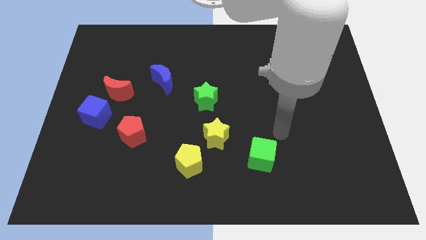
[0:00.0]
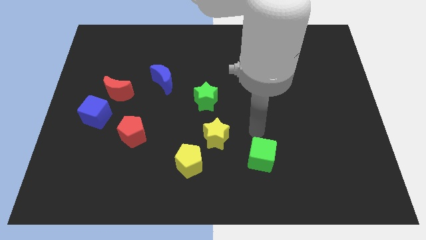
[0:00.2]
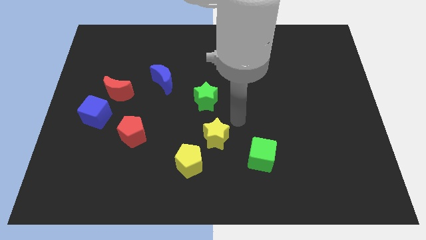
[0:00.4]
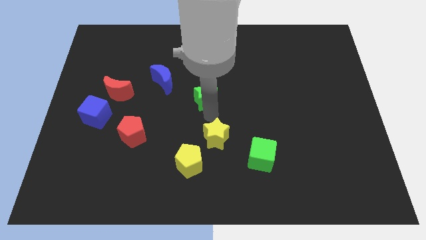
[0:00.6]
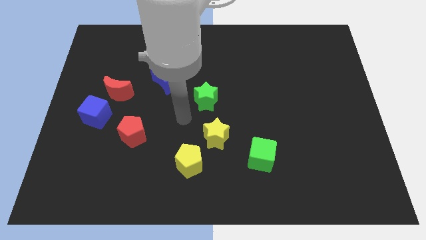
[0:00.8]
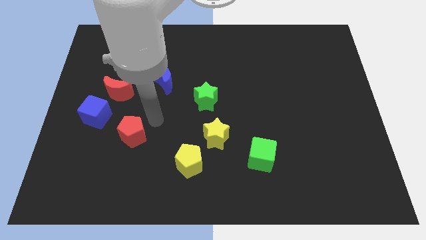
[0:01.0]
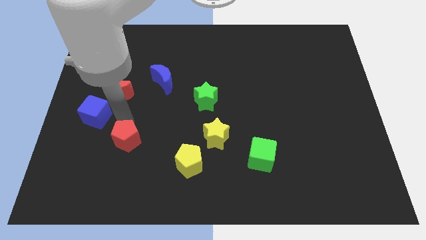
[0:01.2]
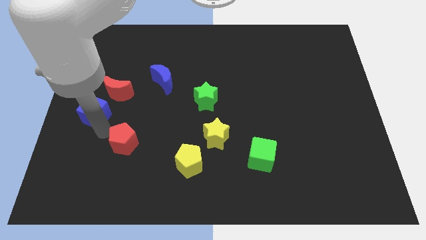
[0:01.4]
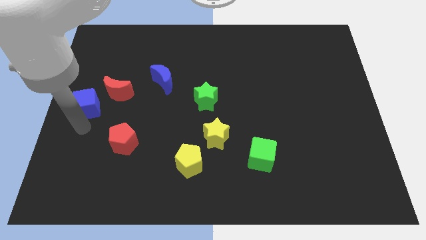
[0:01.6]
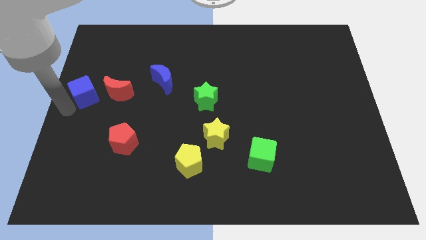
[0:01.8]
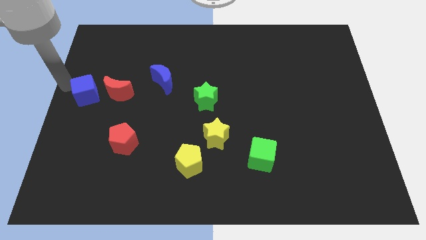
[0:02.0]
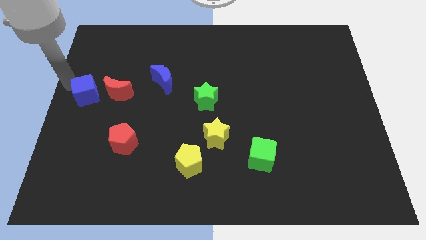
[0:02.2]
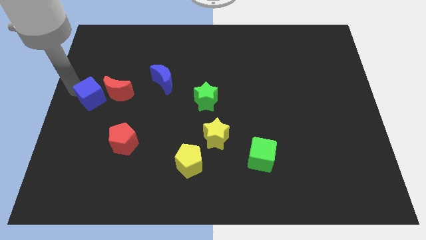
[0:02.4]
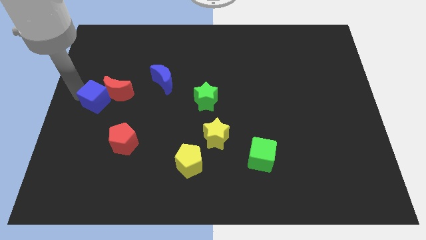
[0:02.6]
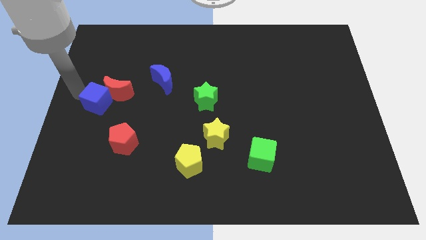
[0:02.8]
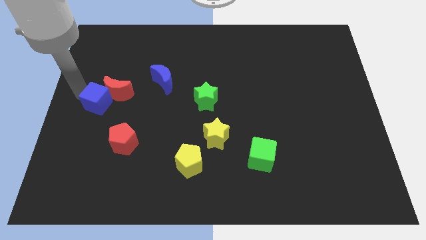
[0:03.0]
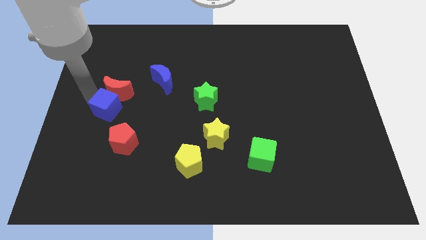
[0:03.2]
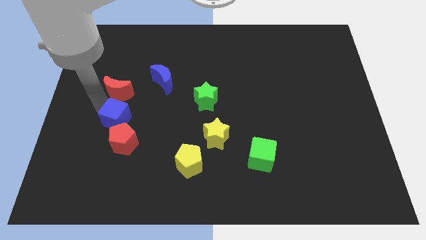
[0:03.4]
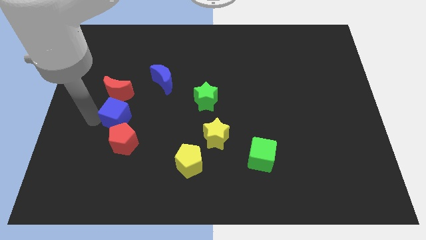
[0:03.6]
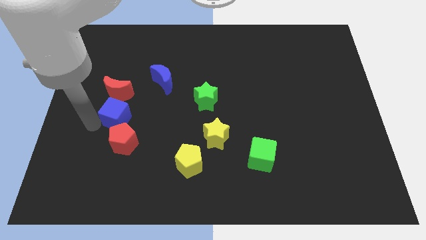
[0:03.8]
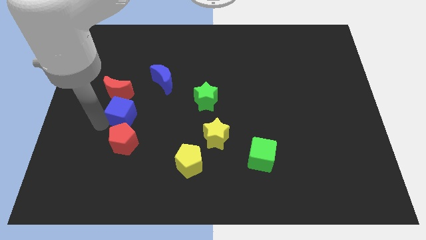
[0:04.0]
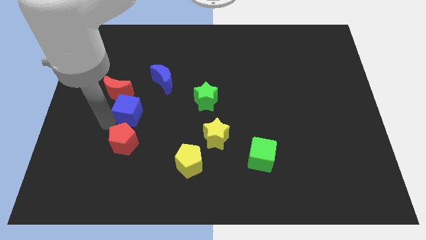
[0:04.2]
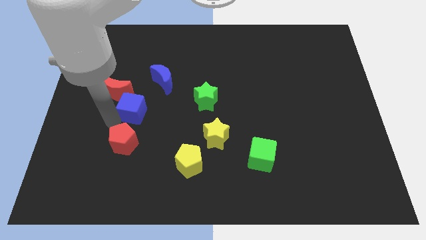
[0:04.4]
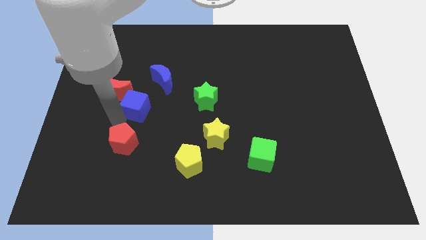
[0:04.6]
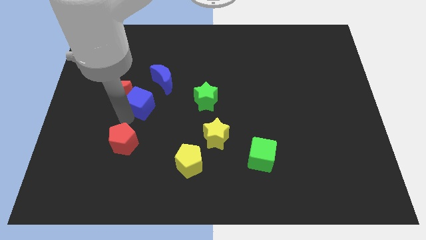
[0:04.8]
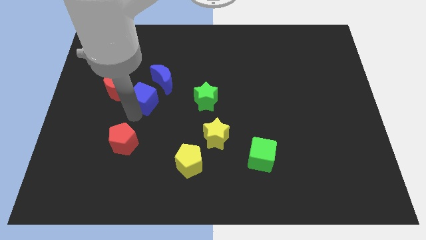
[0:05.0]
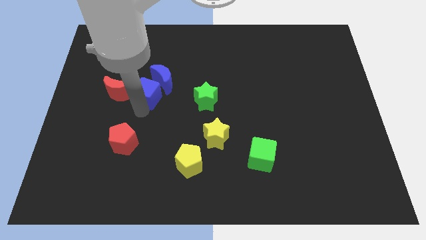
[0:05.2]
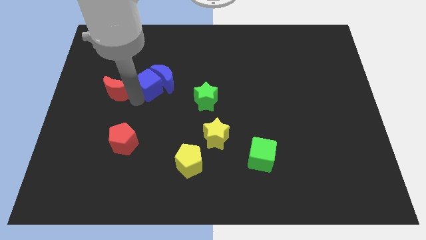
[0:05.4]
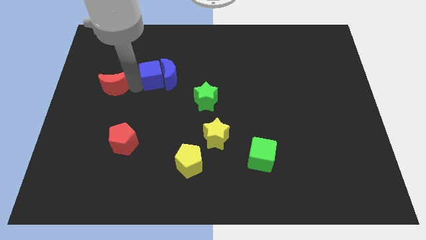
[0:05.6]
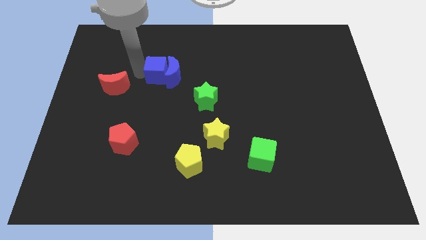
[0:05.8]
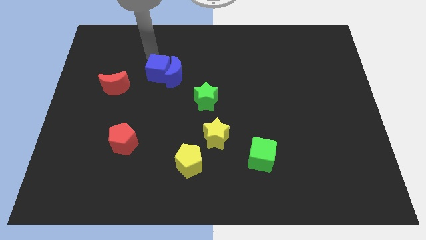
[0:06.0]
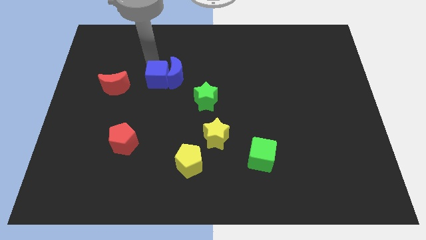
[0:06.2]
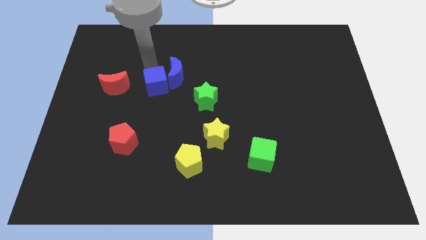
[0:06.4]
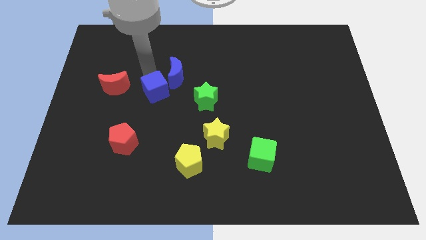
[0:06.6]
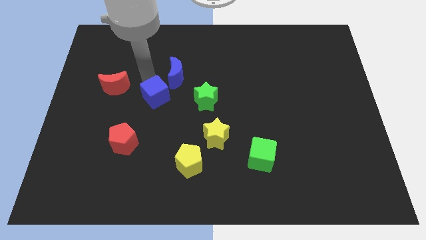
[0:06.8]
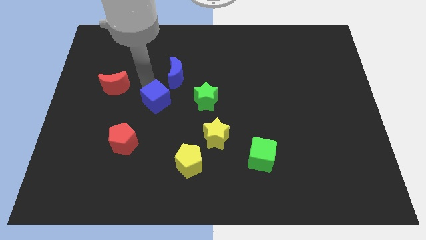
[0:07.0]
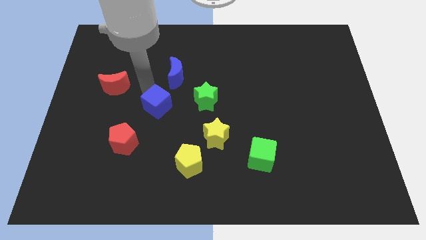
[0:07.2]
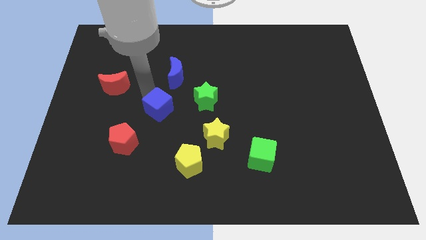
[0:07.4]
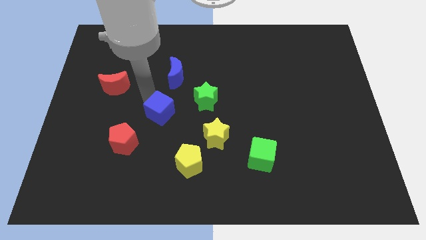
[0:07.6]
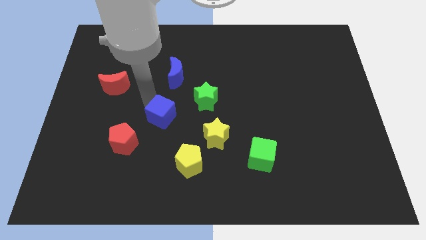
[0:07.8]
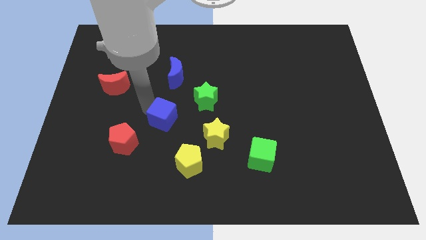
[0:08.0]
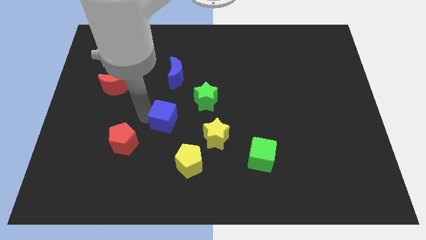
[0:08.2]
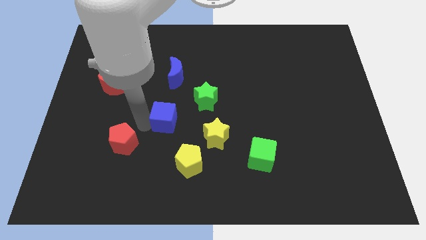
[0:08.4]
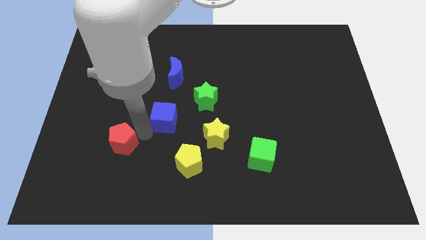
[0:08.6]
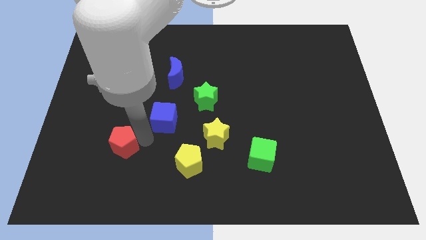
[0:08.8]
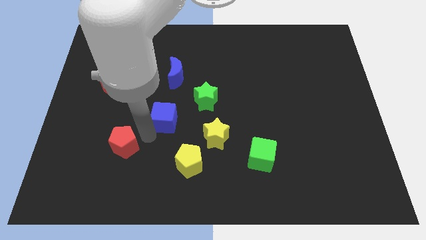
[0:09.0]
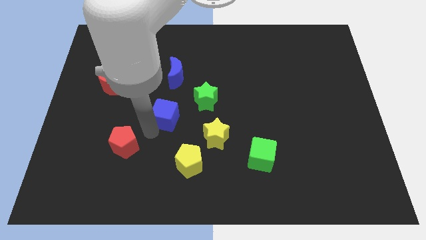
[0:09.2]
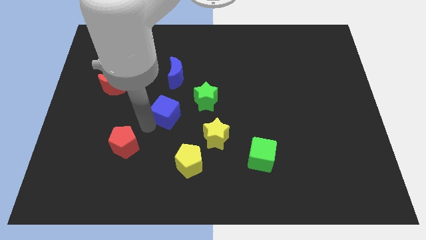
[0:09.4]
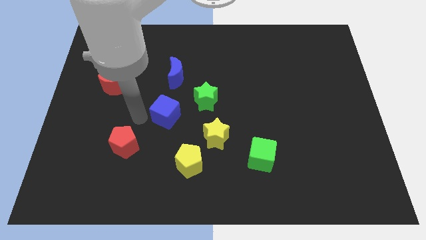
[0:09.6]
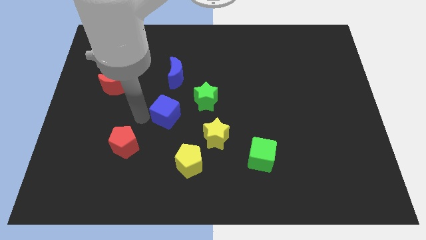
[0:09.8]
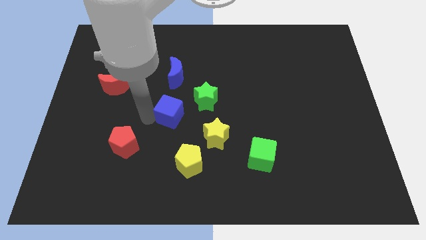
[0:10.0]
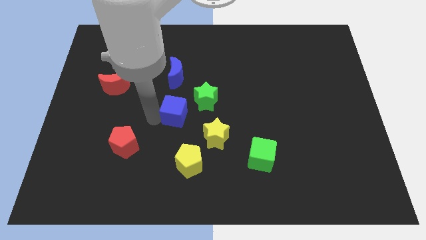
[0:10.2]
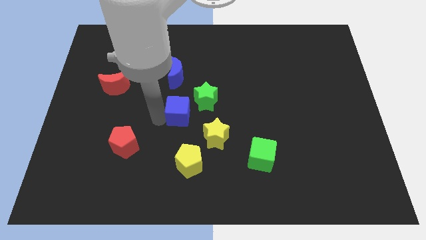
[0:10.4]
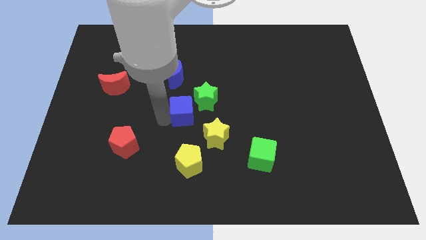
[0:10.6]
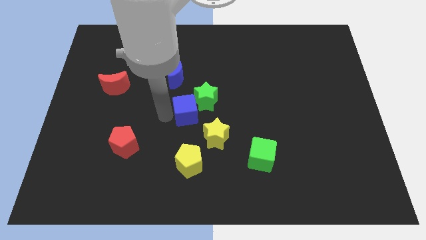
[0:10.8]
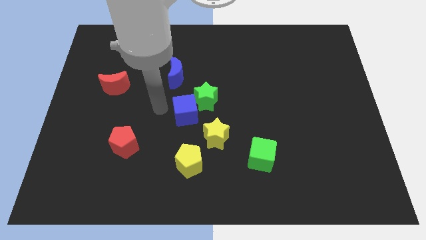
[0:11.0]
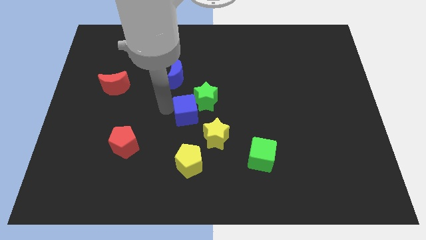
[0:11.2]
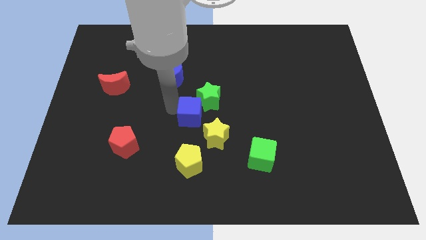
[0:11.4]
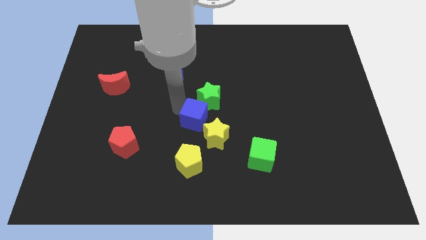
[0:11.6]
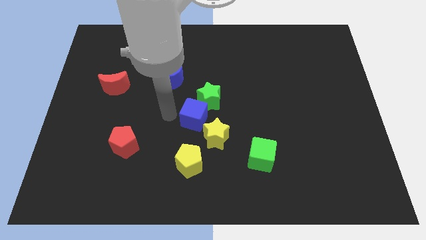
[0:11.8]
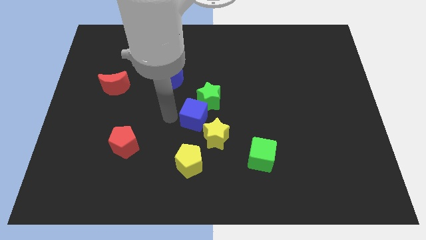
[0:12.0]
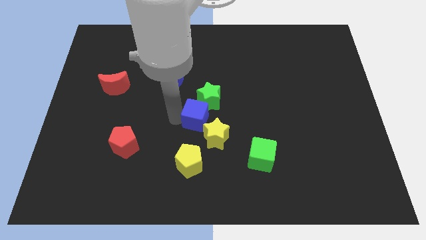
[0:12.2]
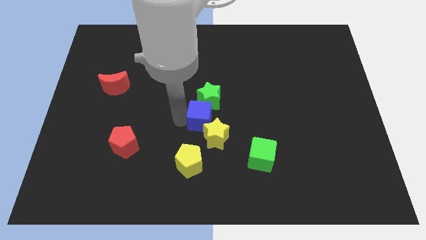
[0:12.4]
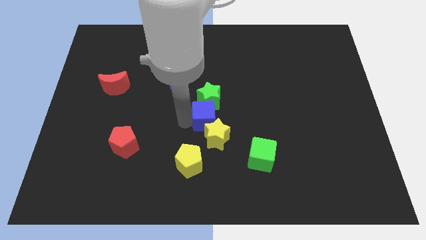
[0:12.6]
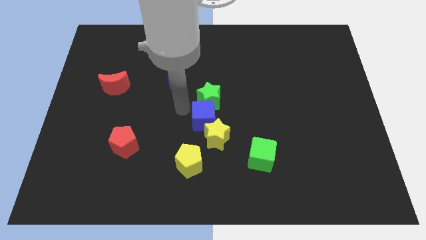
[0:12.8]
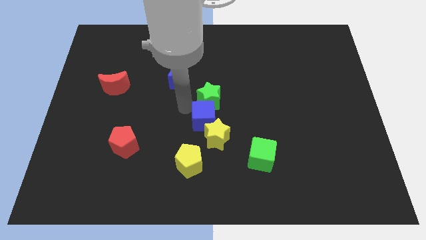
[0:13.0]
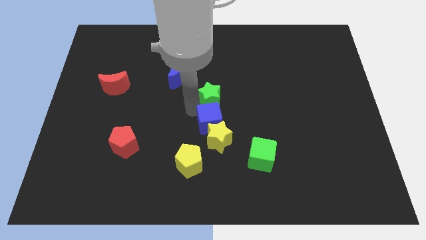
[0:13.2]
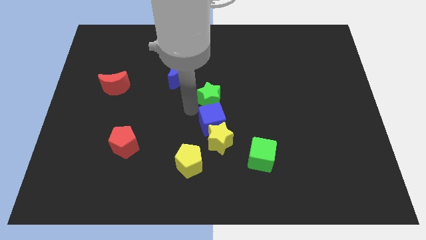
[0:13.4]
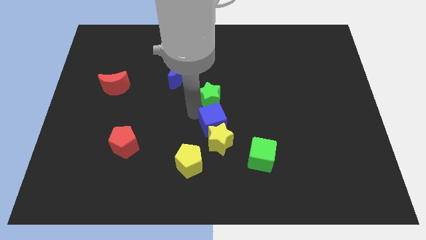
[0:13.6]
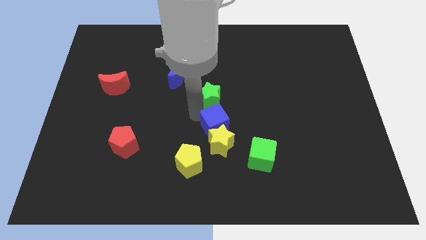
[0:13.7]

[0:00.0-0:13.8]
put the blue cube to the top left of the green cube

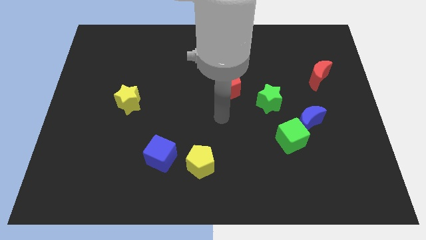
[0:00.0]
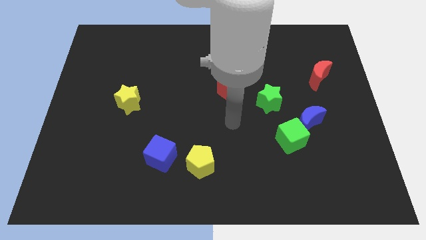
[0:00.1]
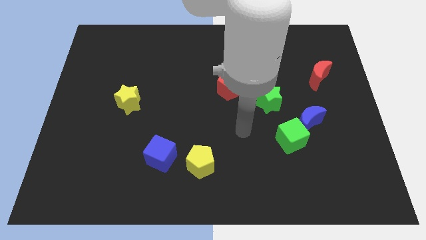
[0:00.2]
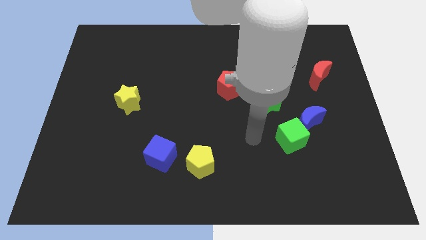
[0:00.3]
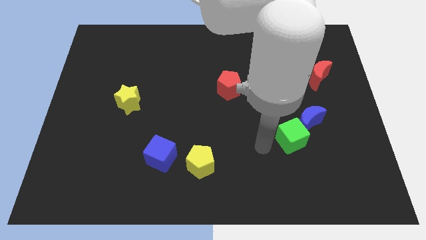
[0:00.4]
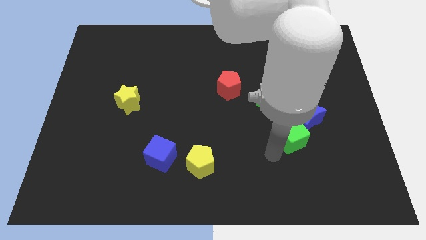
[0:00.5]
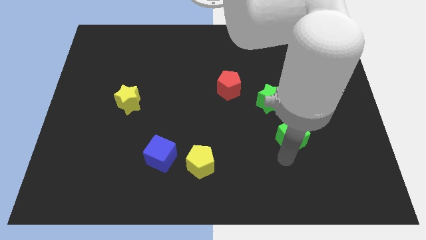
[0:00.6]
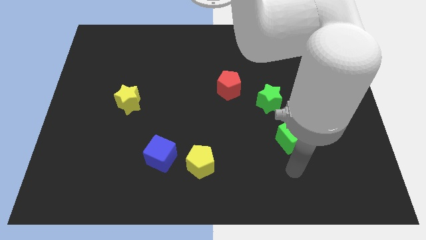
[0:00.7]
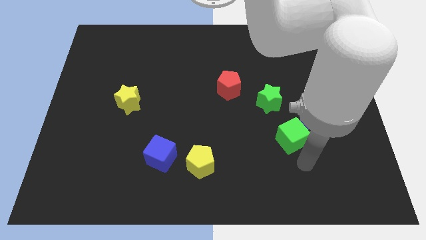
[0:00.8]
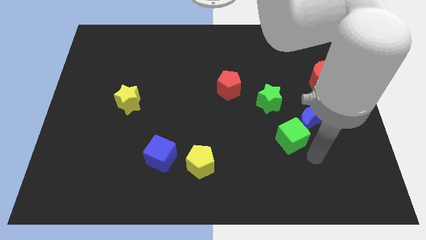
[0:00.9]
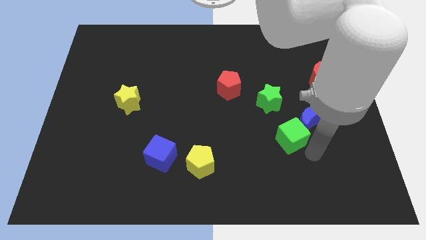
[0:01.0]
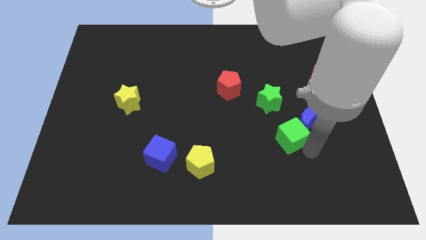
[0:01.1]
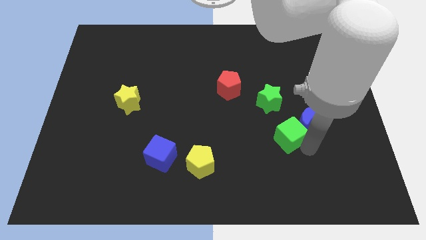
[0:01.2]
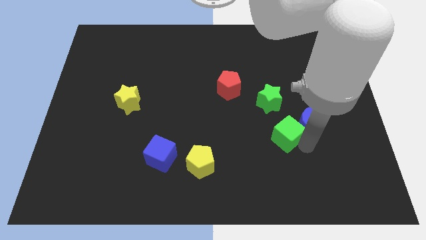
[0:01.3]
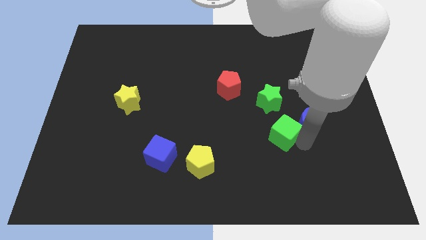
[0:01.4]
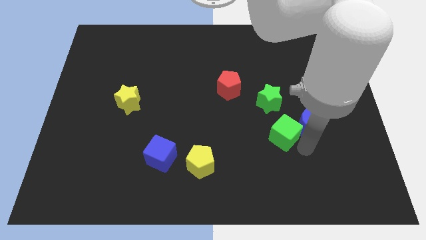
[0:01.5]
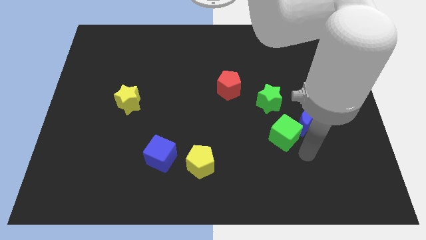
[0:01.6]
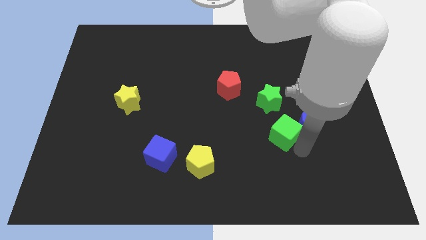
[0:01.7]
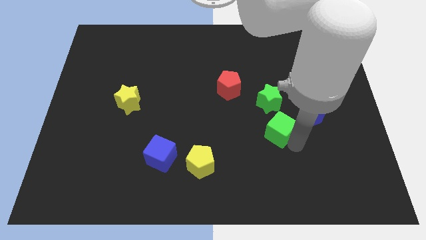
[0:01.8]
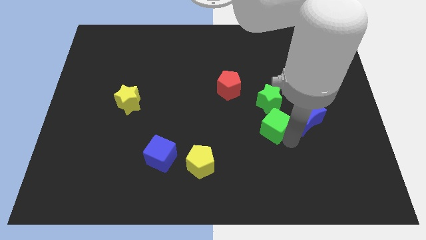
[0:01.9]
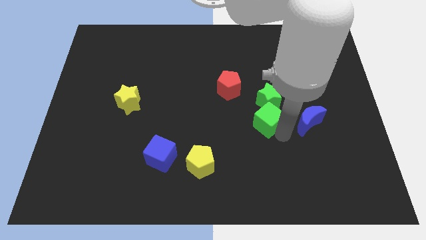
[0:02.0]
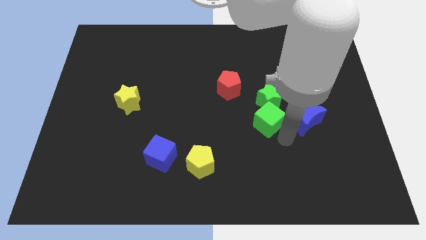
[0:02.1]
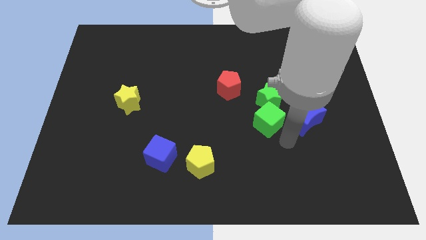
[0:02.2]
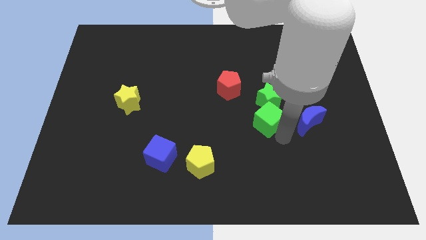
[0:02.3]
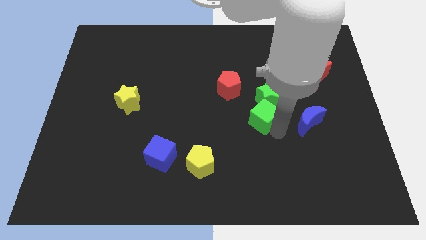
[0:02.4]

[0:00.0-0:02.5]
push the green cube diagonally down and to the right of the red pentagon
